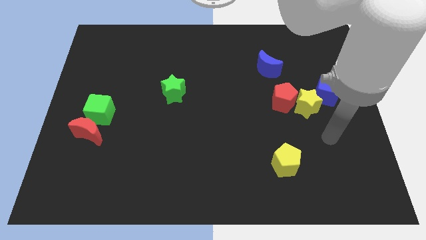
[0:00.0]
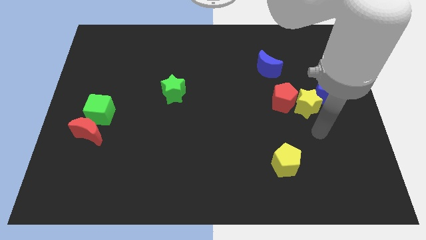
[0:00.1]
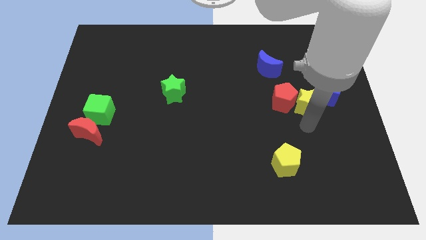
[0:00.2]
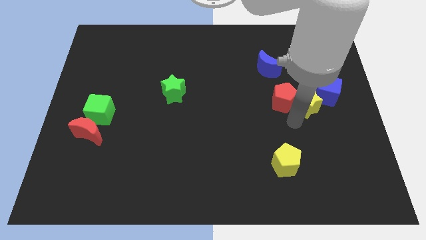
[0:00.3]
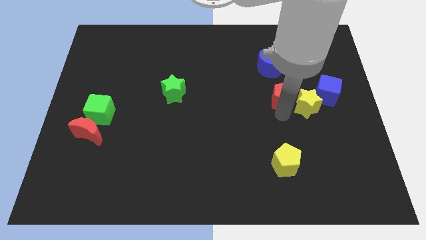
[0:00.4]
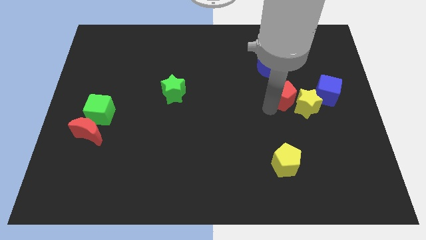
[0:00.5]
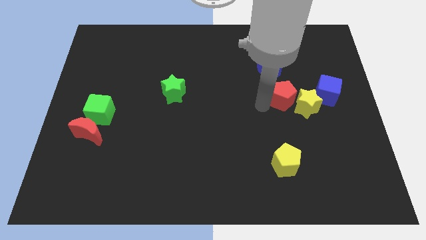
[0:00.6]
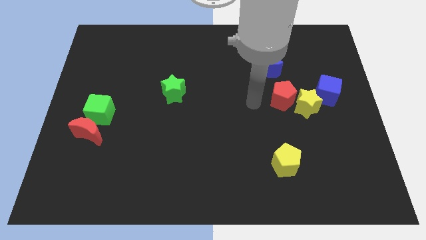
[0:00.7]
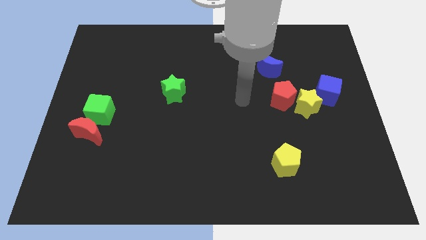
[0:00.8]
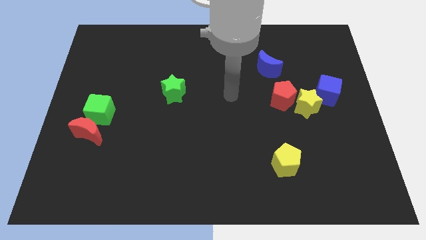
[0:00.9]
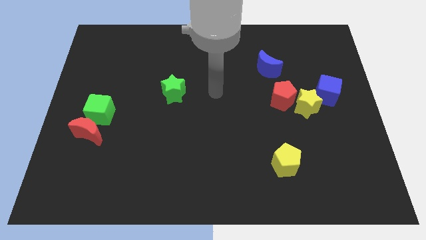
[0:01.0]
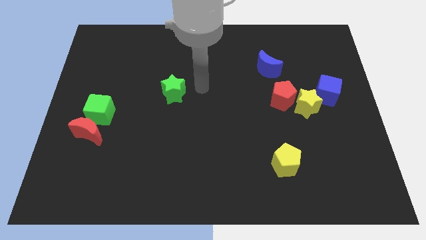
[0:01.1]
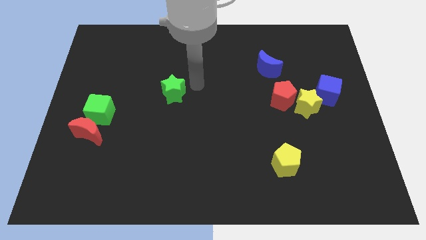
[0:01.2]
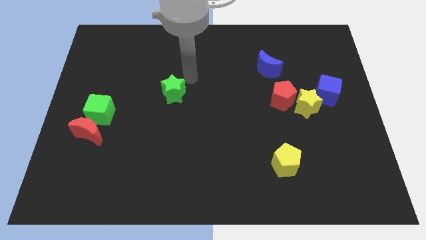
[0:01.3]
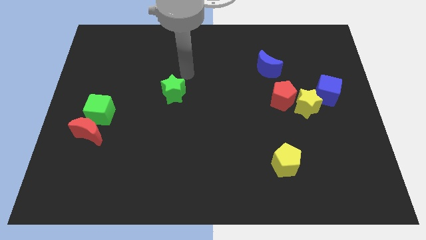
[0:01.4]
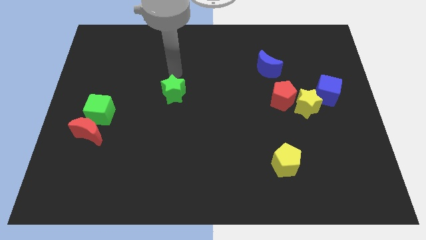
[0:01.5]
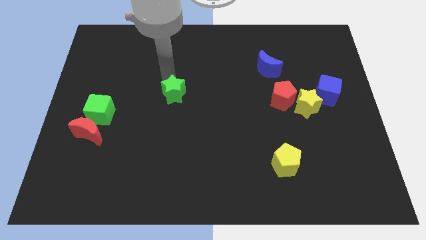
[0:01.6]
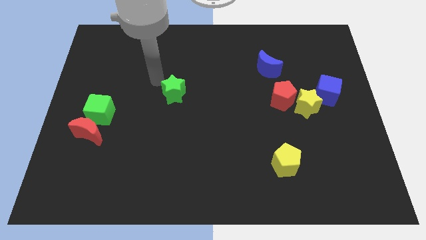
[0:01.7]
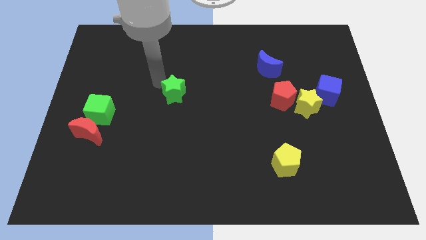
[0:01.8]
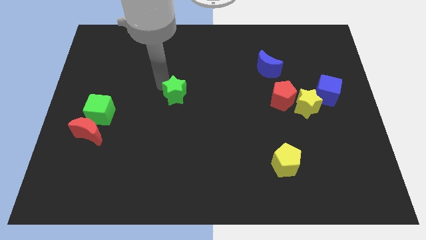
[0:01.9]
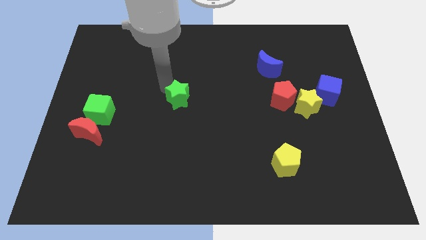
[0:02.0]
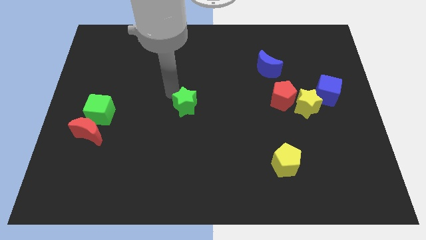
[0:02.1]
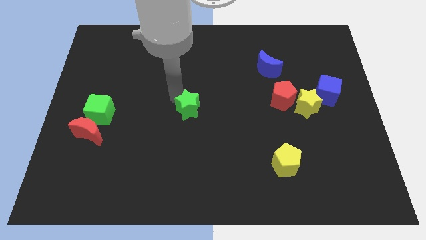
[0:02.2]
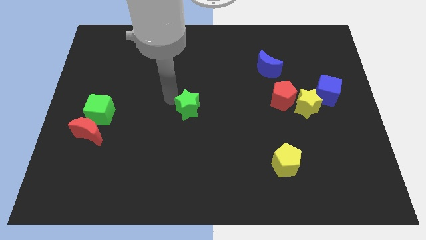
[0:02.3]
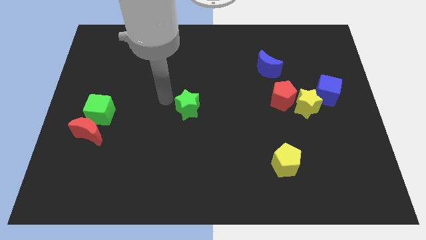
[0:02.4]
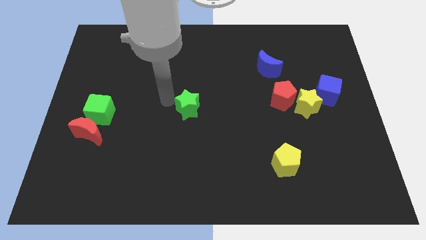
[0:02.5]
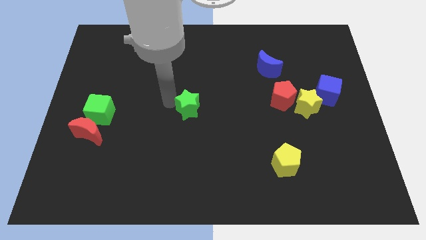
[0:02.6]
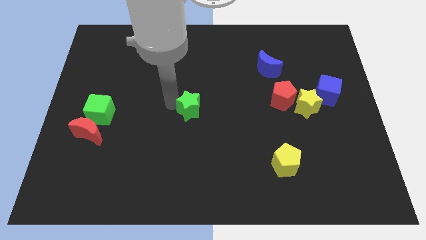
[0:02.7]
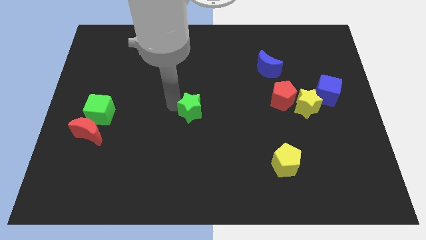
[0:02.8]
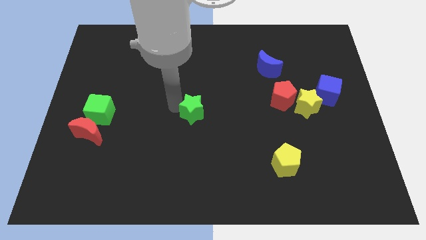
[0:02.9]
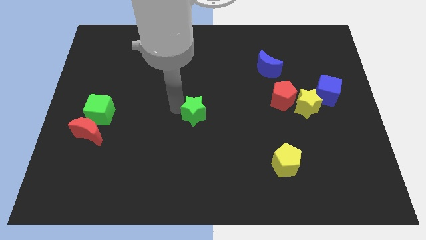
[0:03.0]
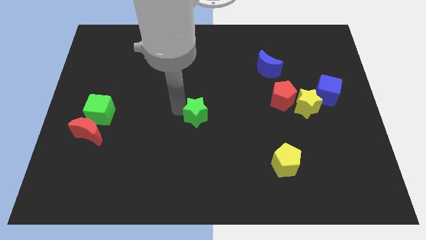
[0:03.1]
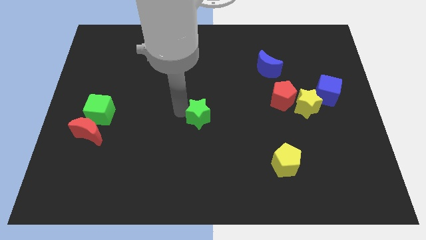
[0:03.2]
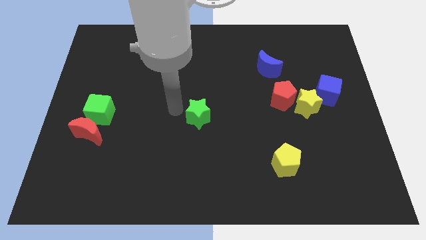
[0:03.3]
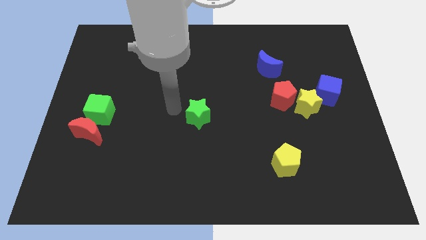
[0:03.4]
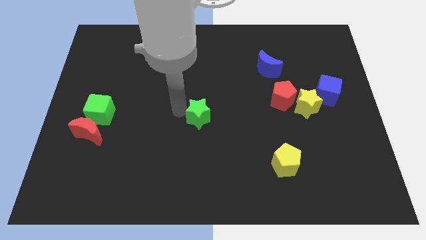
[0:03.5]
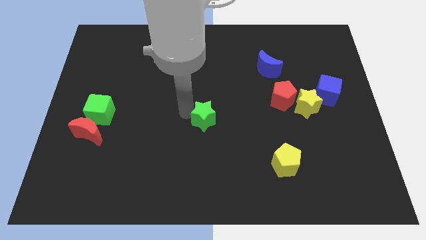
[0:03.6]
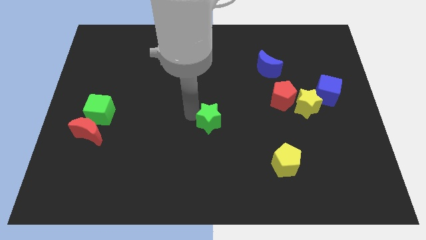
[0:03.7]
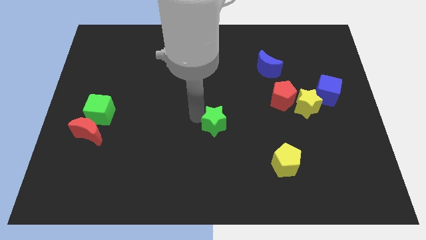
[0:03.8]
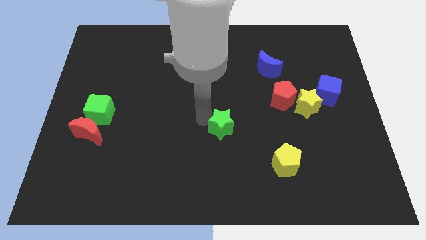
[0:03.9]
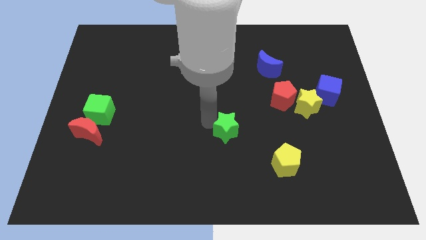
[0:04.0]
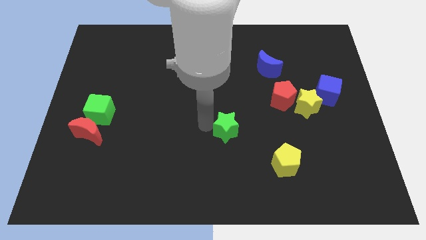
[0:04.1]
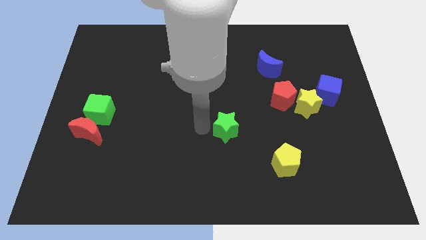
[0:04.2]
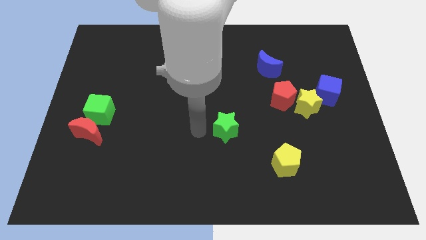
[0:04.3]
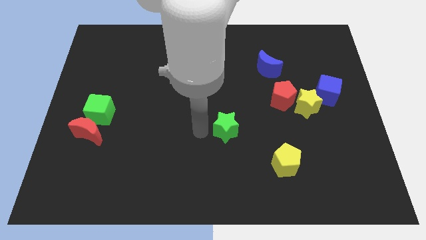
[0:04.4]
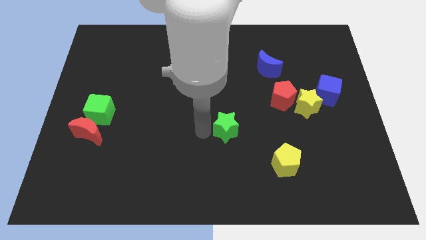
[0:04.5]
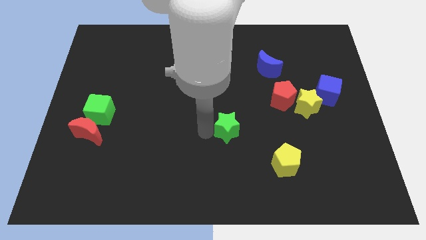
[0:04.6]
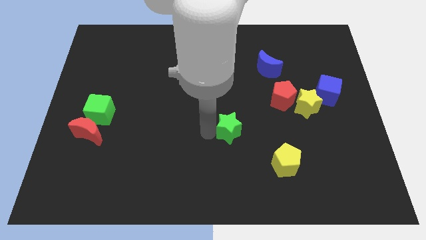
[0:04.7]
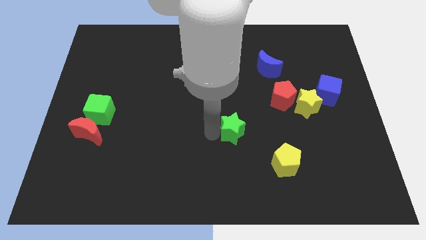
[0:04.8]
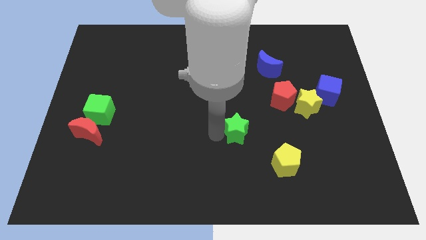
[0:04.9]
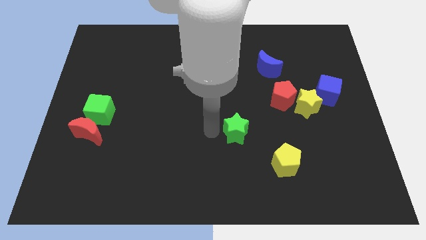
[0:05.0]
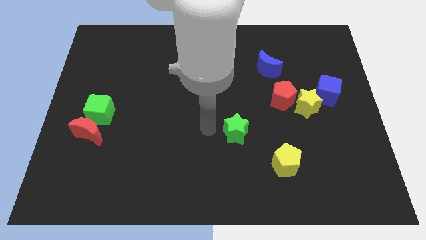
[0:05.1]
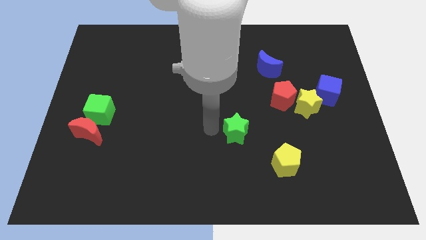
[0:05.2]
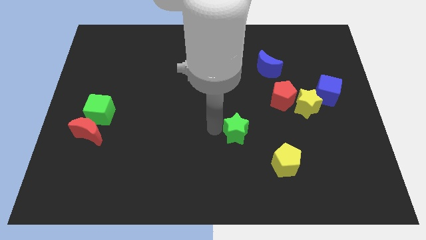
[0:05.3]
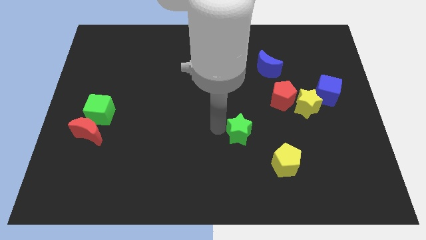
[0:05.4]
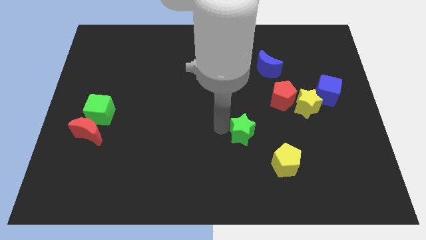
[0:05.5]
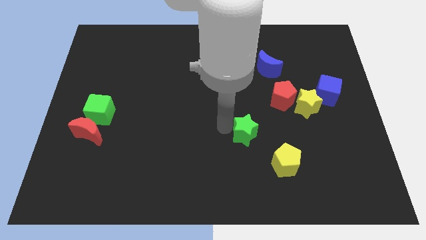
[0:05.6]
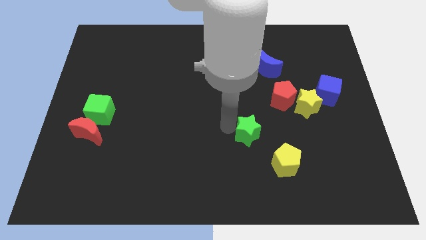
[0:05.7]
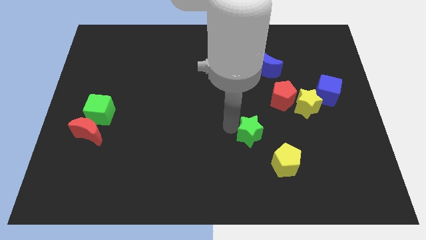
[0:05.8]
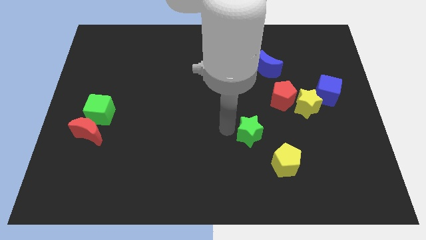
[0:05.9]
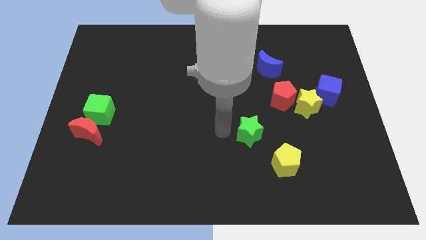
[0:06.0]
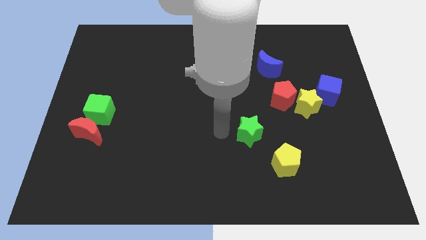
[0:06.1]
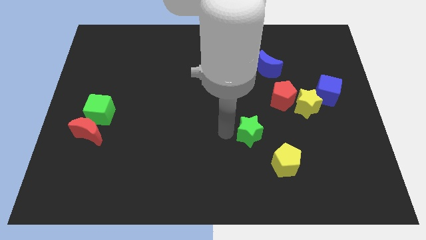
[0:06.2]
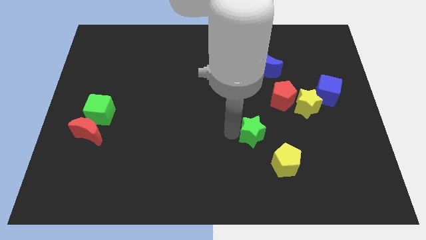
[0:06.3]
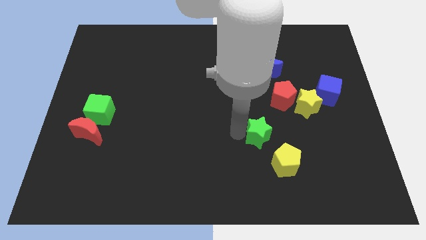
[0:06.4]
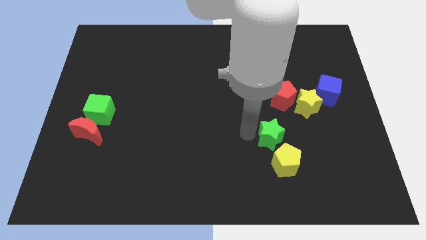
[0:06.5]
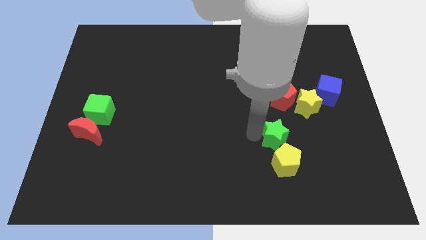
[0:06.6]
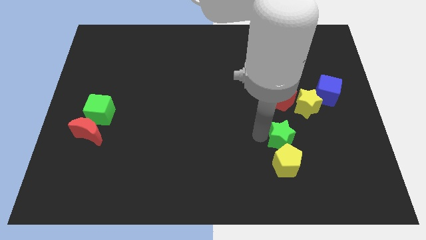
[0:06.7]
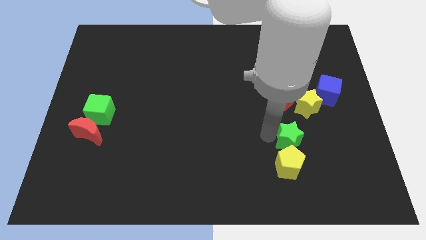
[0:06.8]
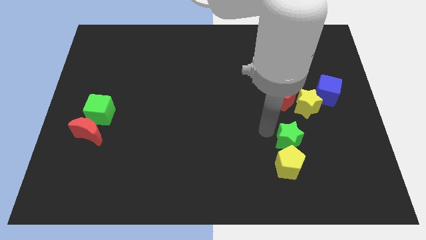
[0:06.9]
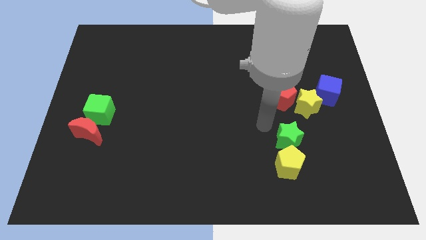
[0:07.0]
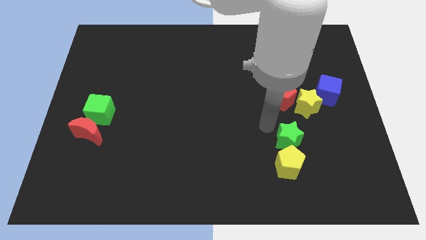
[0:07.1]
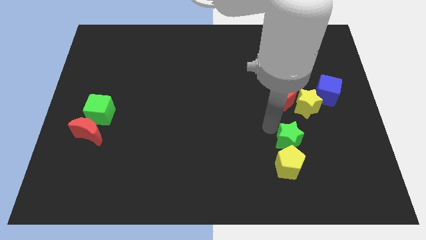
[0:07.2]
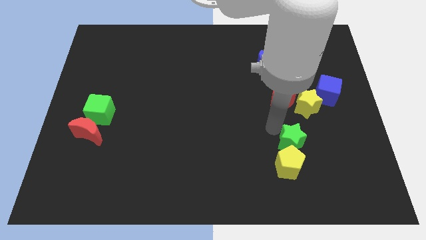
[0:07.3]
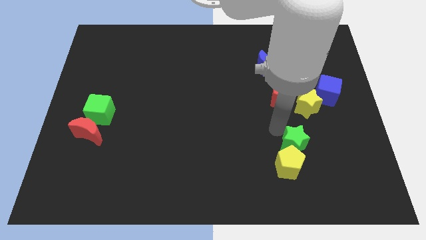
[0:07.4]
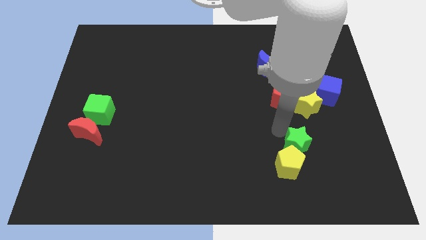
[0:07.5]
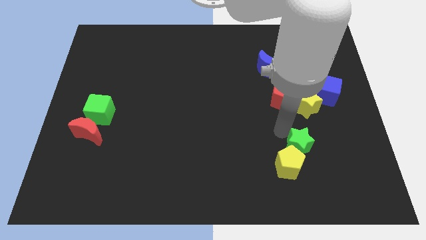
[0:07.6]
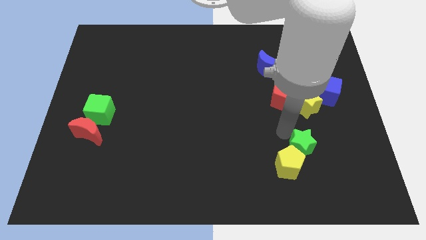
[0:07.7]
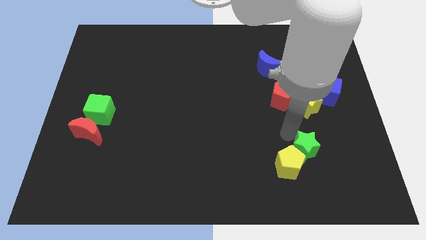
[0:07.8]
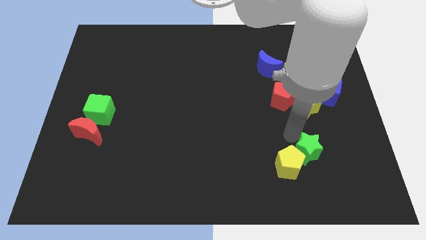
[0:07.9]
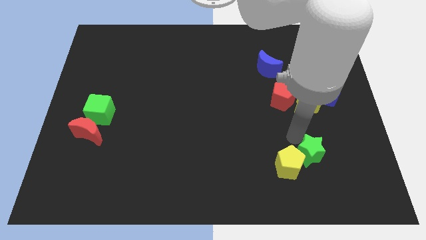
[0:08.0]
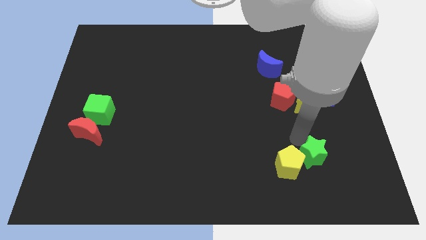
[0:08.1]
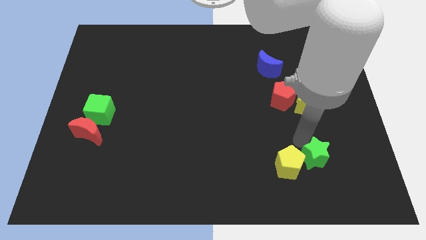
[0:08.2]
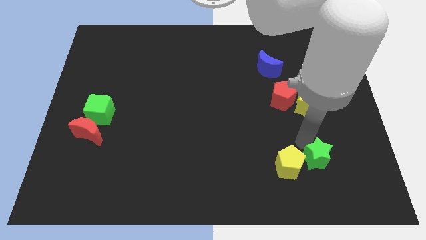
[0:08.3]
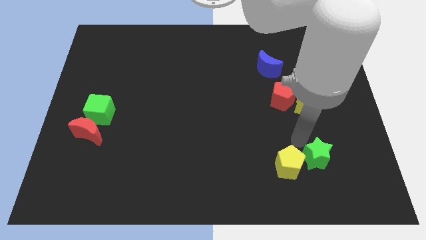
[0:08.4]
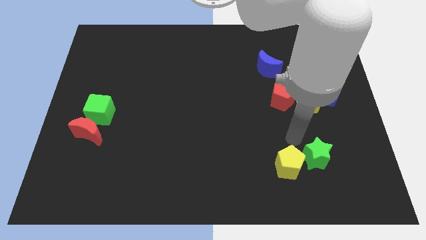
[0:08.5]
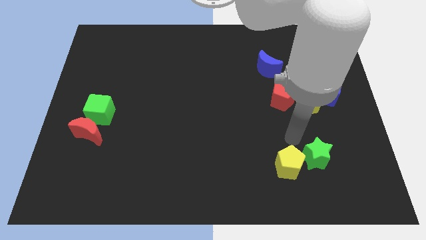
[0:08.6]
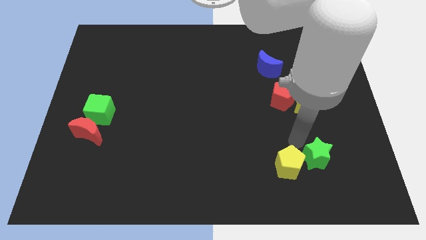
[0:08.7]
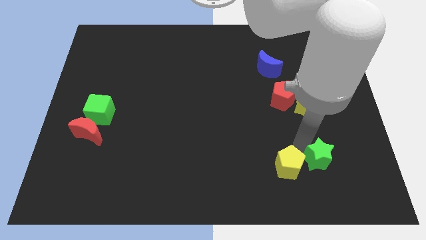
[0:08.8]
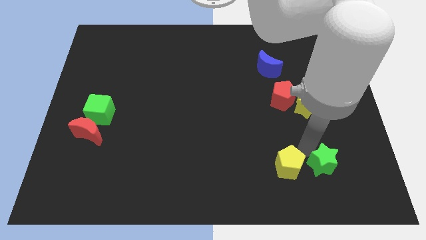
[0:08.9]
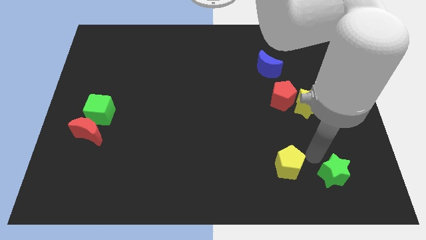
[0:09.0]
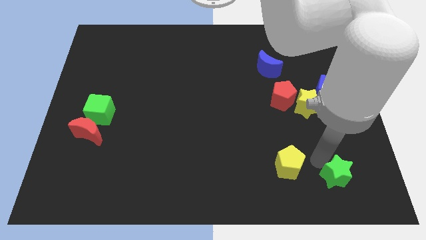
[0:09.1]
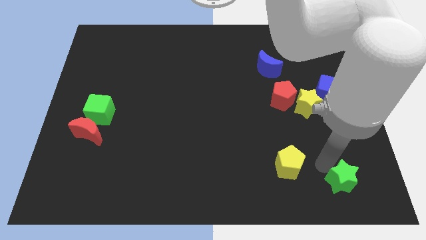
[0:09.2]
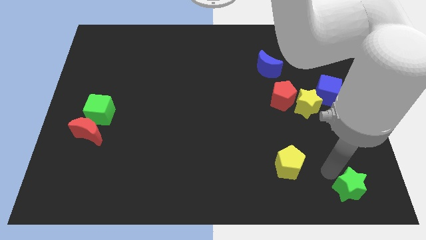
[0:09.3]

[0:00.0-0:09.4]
slide the green star to the lower right corner
